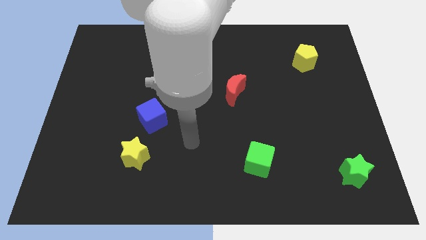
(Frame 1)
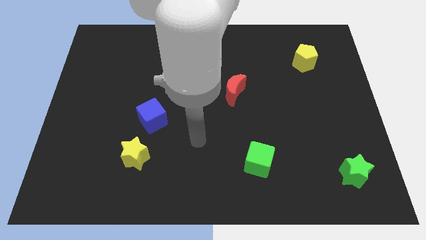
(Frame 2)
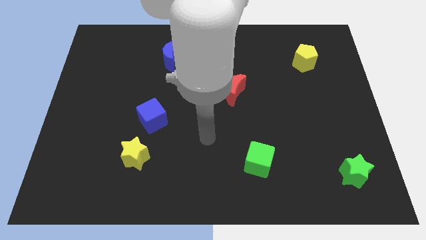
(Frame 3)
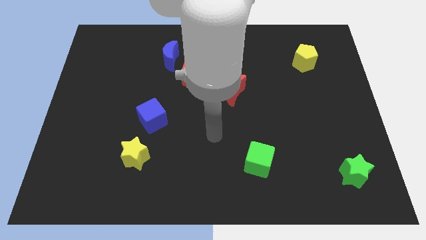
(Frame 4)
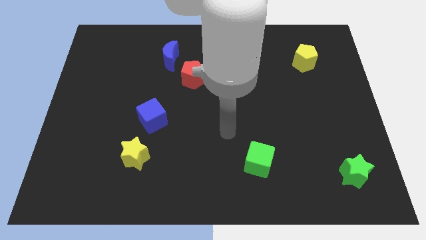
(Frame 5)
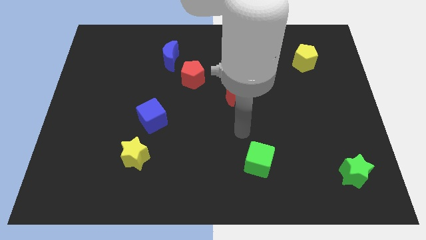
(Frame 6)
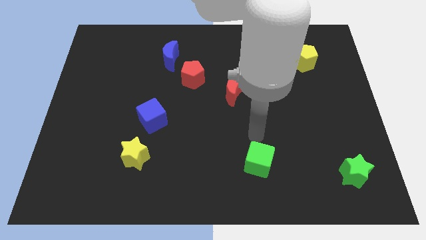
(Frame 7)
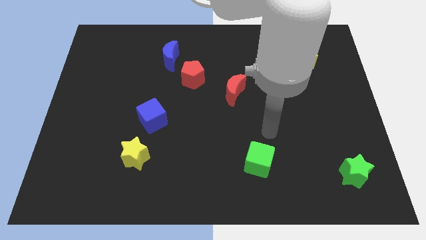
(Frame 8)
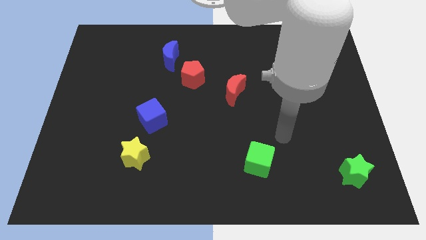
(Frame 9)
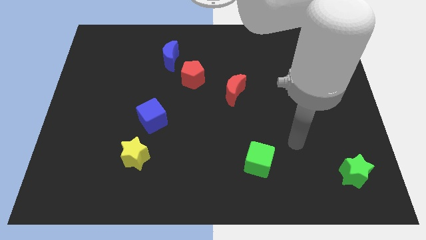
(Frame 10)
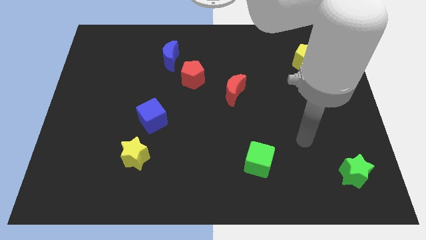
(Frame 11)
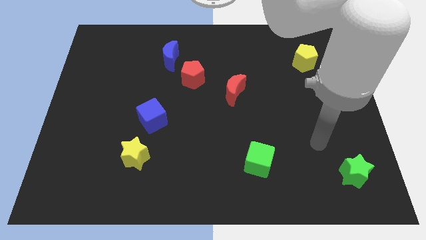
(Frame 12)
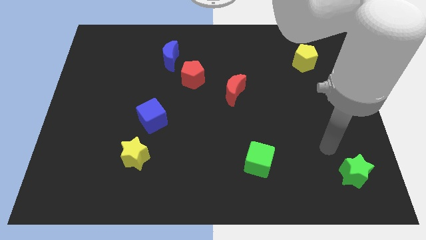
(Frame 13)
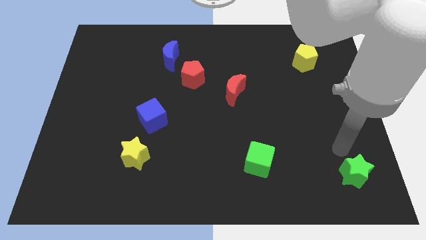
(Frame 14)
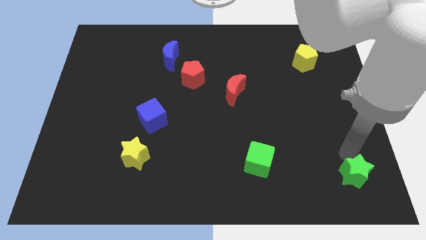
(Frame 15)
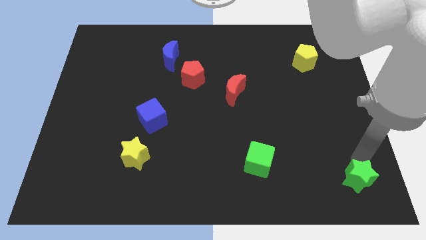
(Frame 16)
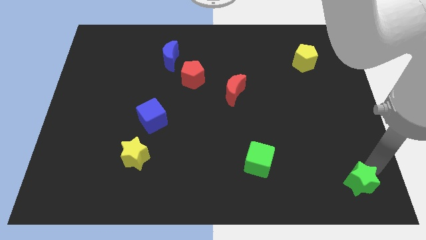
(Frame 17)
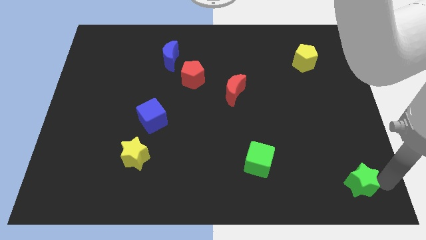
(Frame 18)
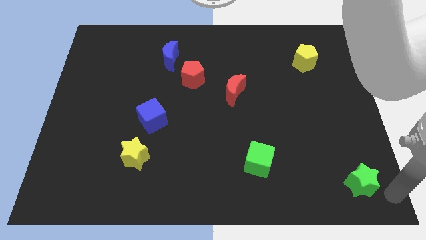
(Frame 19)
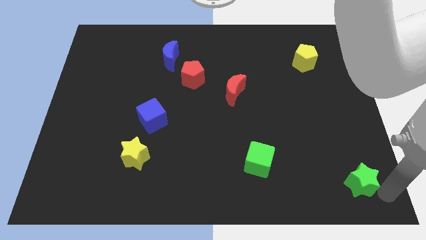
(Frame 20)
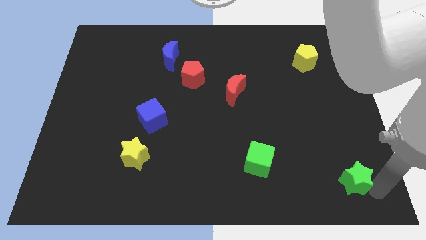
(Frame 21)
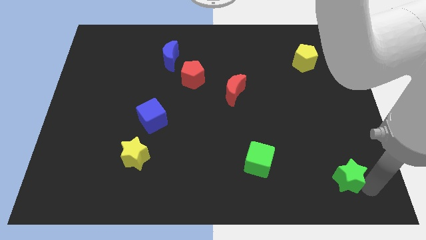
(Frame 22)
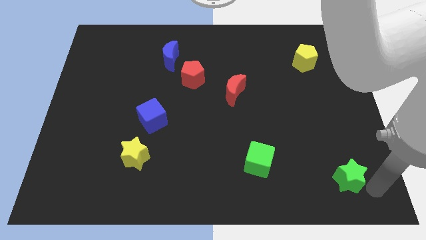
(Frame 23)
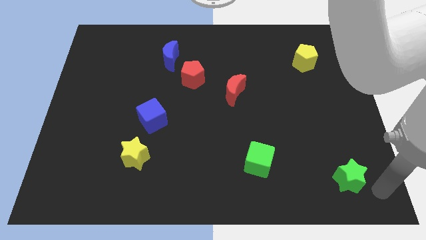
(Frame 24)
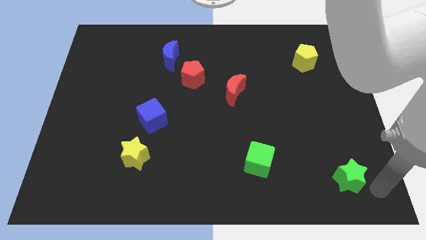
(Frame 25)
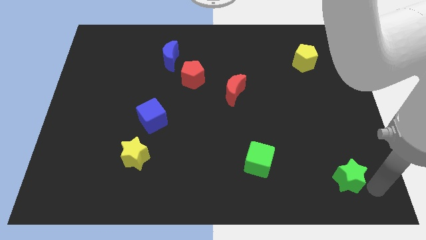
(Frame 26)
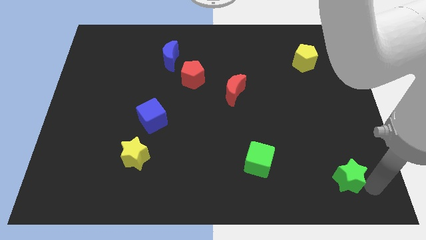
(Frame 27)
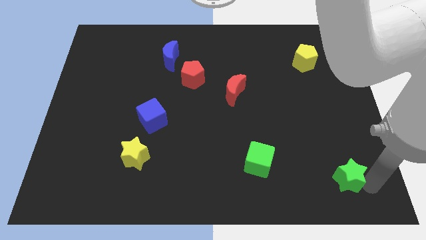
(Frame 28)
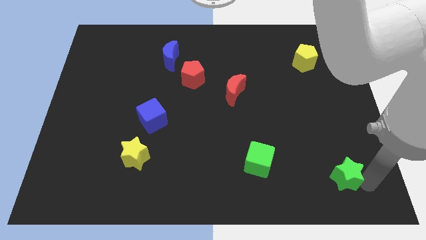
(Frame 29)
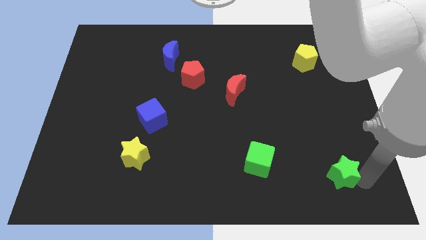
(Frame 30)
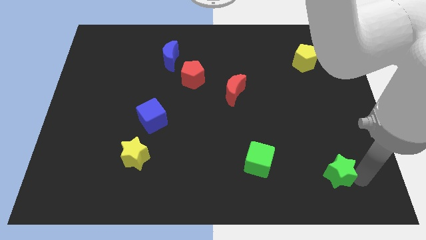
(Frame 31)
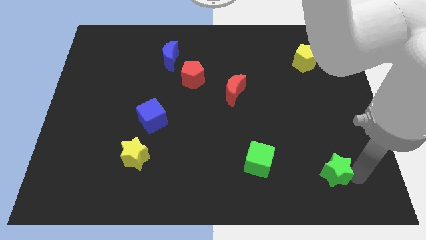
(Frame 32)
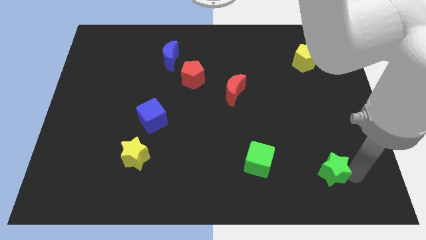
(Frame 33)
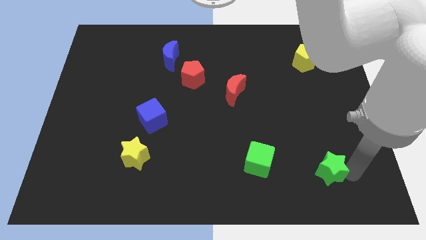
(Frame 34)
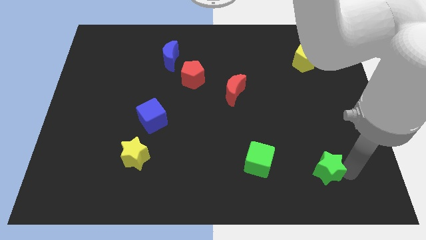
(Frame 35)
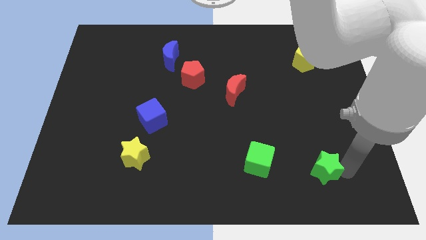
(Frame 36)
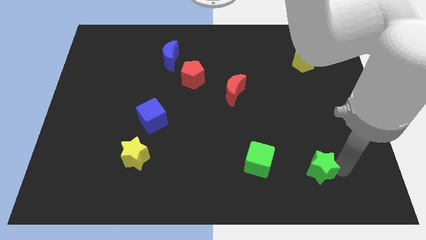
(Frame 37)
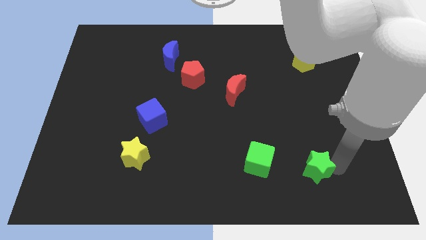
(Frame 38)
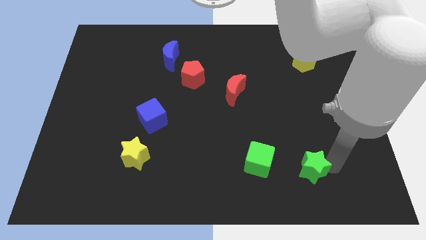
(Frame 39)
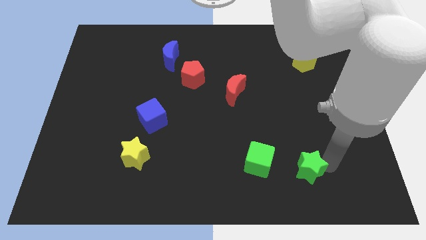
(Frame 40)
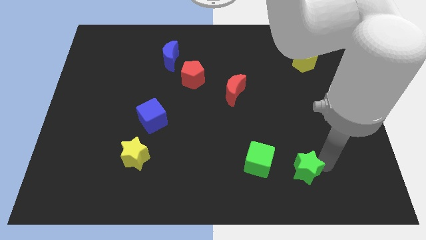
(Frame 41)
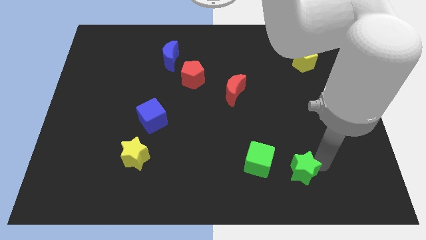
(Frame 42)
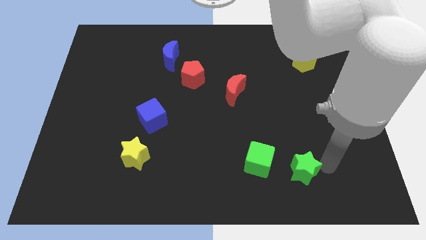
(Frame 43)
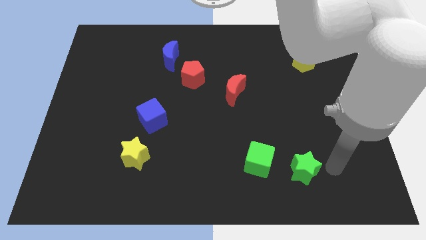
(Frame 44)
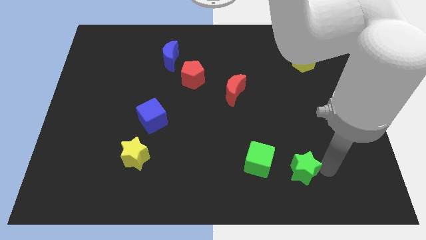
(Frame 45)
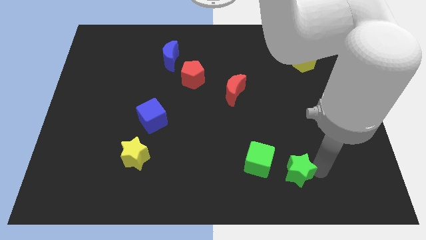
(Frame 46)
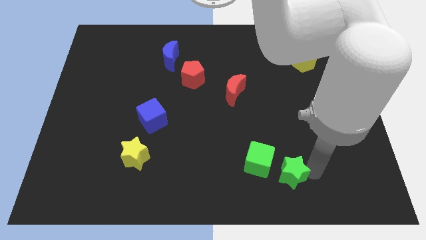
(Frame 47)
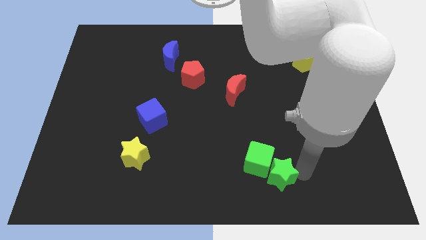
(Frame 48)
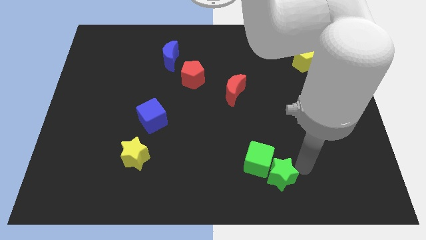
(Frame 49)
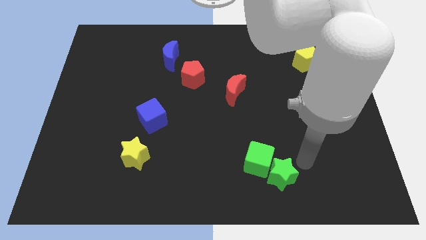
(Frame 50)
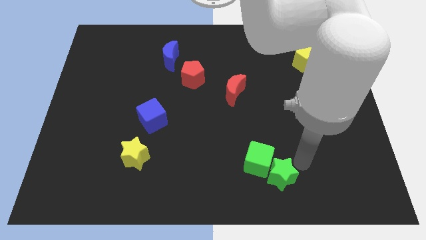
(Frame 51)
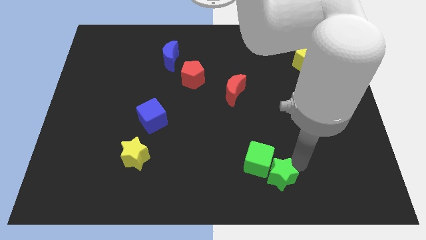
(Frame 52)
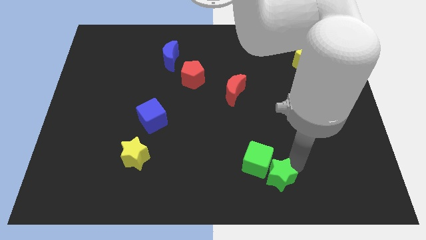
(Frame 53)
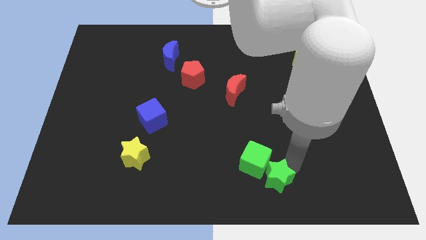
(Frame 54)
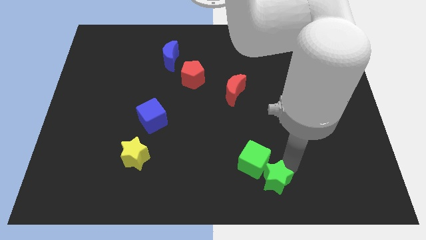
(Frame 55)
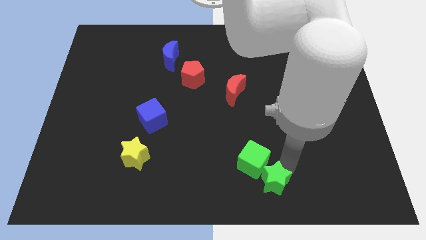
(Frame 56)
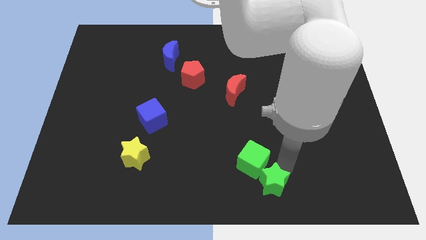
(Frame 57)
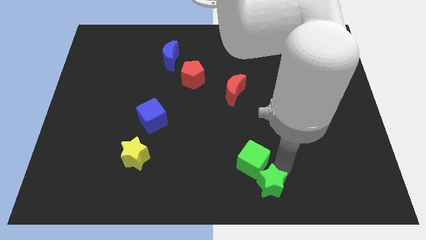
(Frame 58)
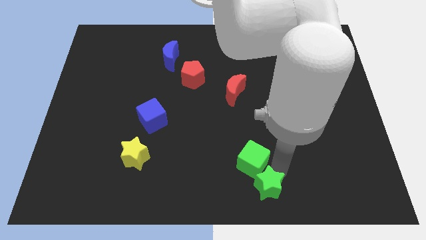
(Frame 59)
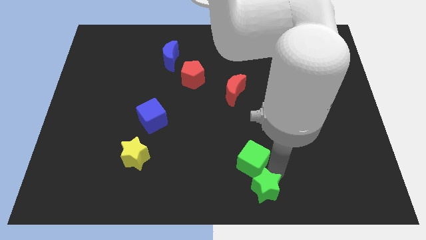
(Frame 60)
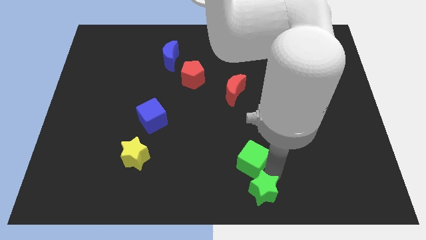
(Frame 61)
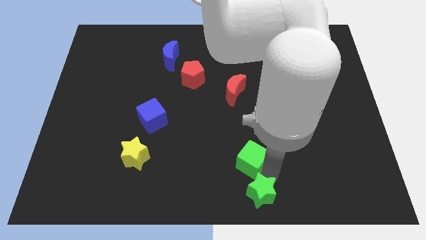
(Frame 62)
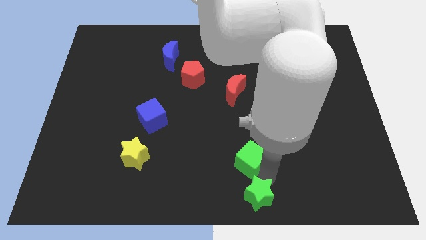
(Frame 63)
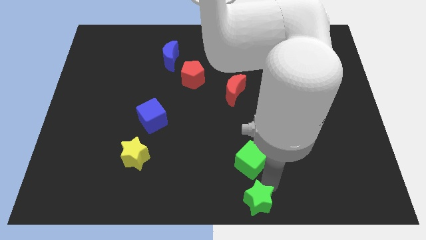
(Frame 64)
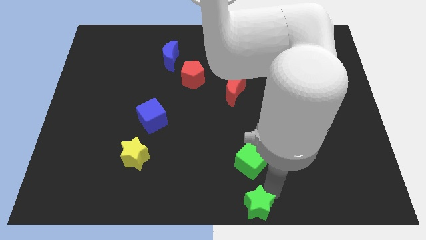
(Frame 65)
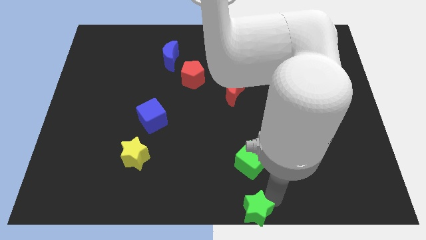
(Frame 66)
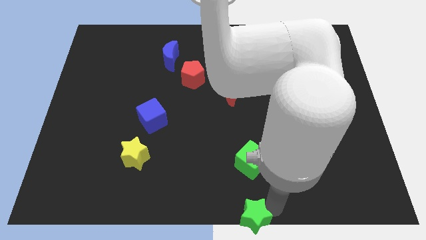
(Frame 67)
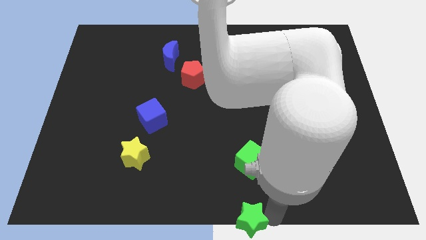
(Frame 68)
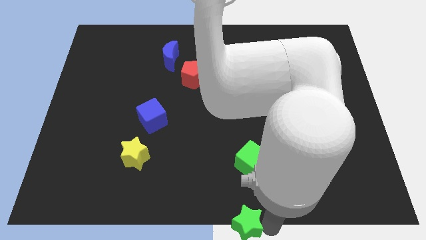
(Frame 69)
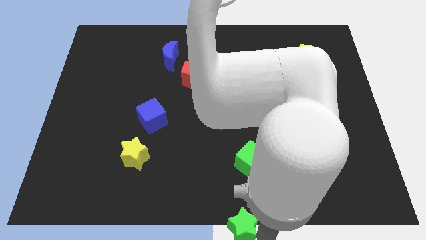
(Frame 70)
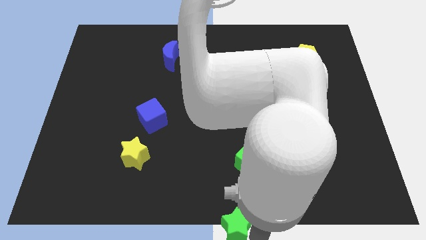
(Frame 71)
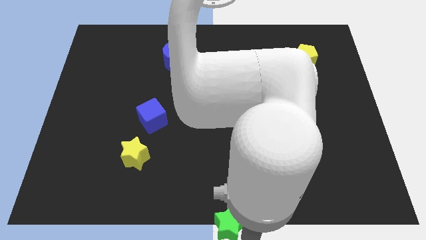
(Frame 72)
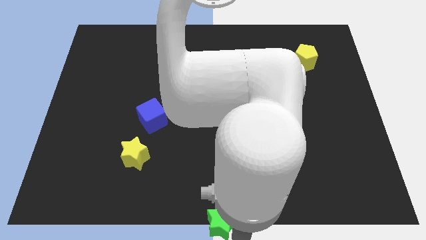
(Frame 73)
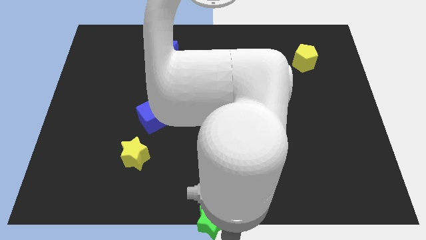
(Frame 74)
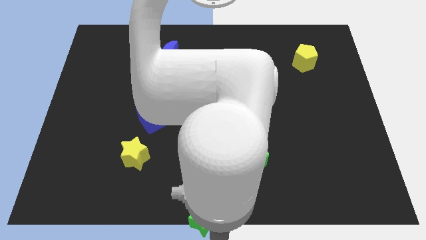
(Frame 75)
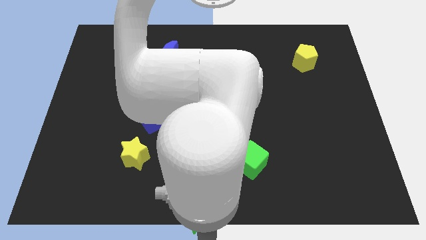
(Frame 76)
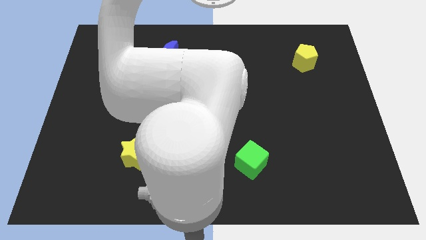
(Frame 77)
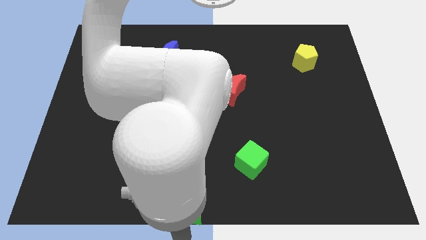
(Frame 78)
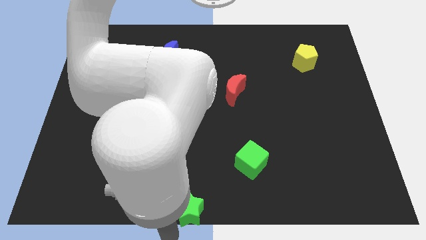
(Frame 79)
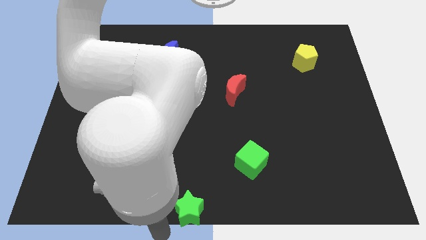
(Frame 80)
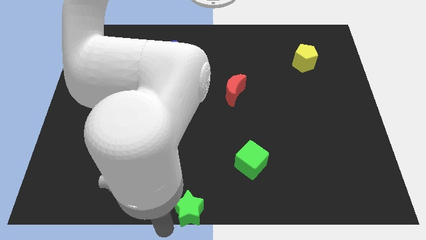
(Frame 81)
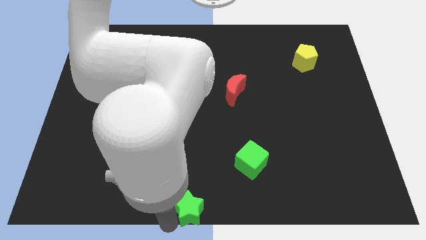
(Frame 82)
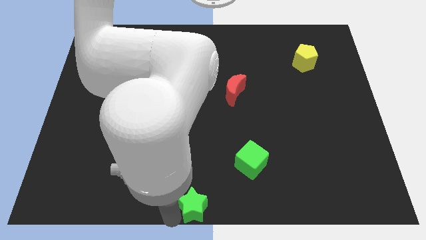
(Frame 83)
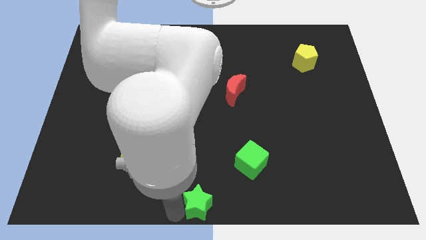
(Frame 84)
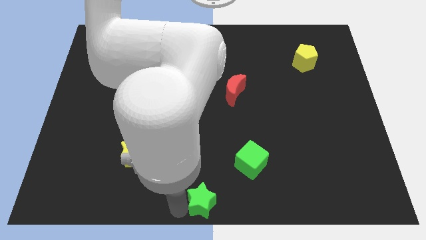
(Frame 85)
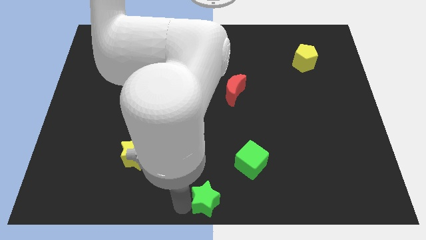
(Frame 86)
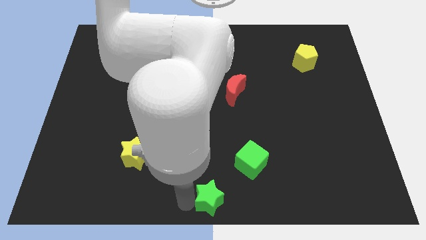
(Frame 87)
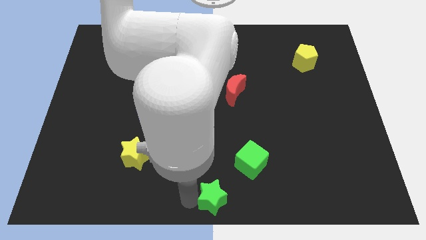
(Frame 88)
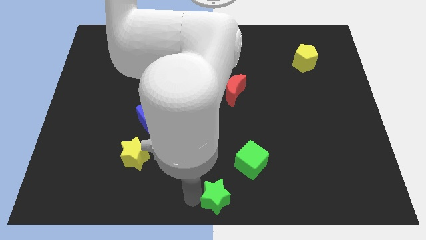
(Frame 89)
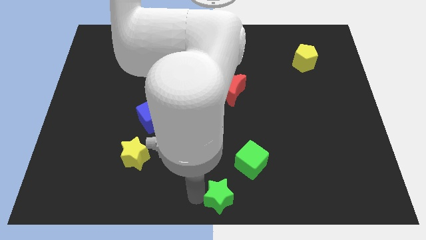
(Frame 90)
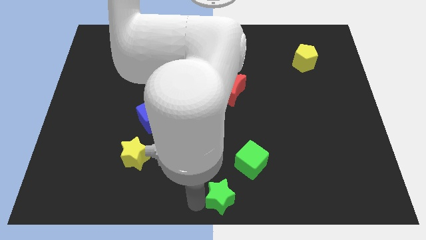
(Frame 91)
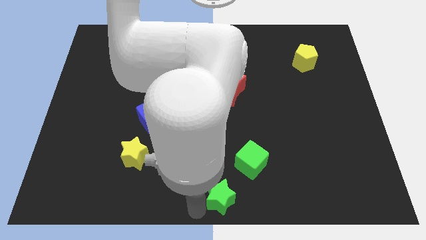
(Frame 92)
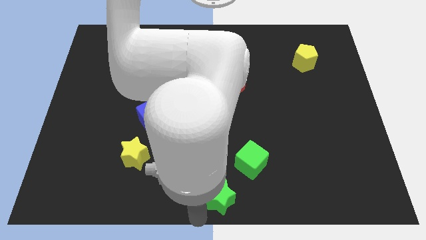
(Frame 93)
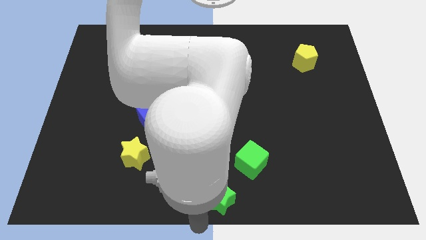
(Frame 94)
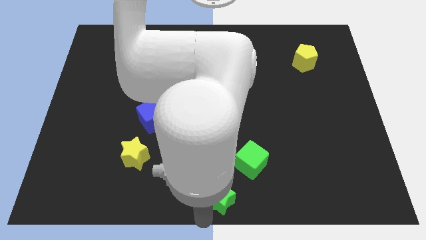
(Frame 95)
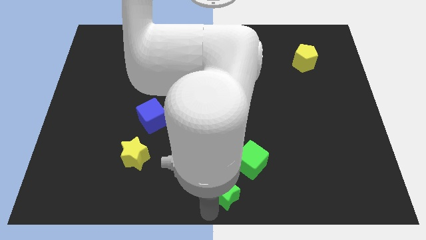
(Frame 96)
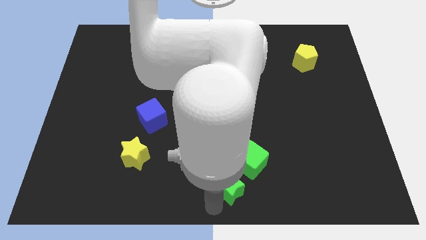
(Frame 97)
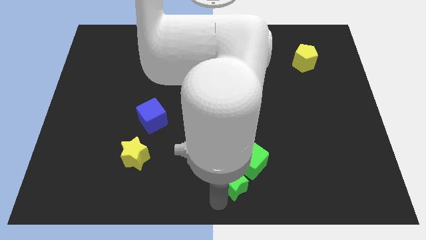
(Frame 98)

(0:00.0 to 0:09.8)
push the green star just left of the green cube
